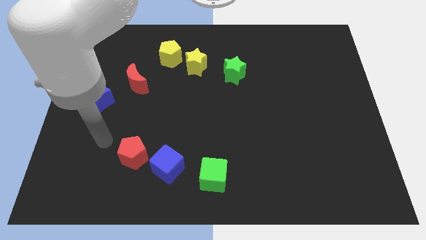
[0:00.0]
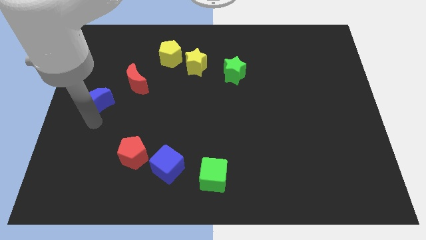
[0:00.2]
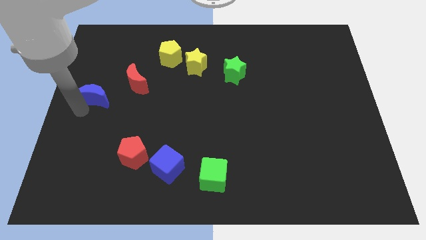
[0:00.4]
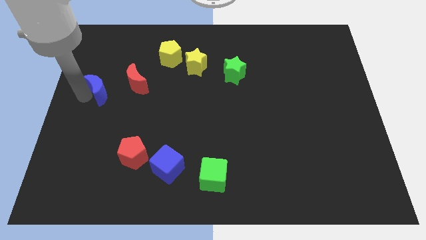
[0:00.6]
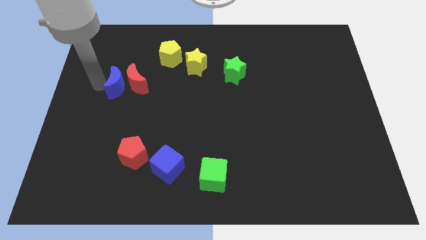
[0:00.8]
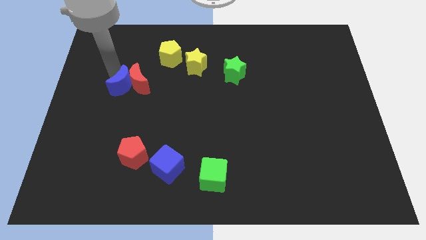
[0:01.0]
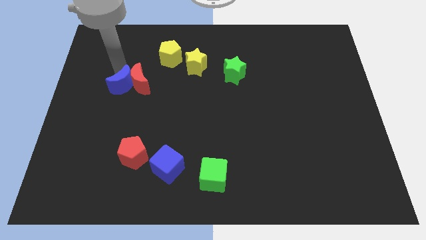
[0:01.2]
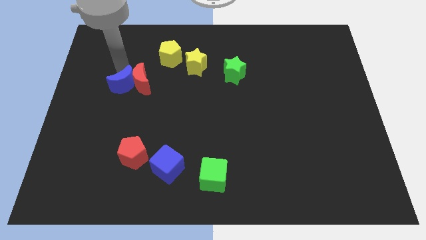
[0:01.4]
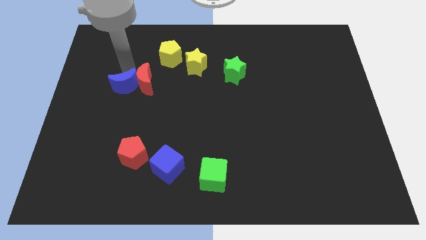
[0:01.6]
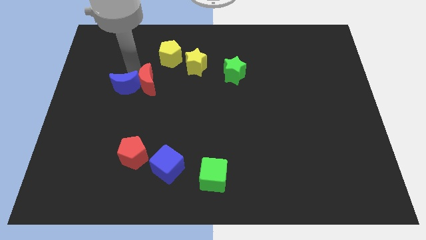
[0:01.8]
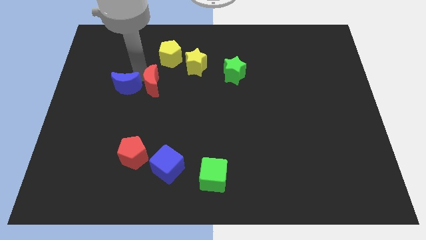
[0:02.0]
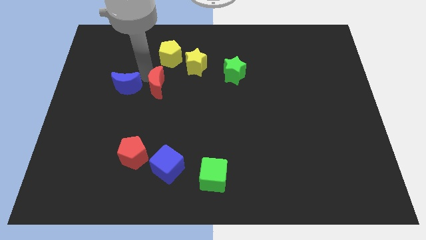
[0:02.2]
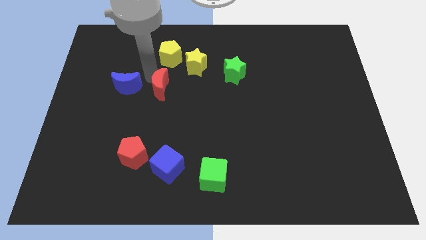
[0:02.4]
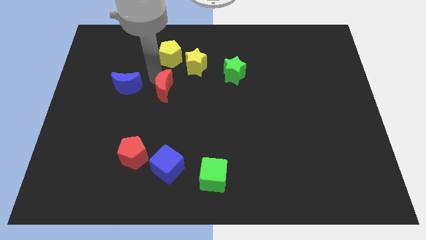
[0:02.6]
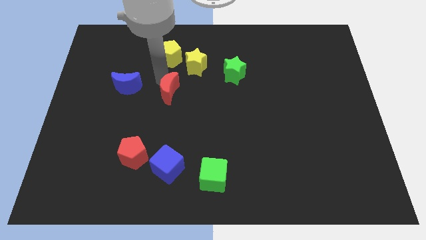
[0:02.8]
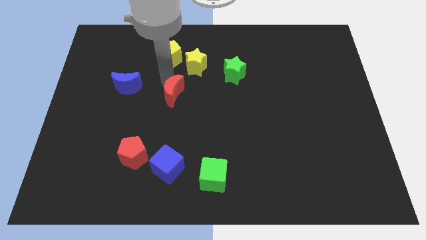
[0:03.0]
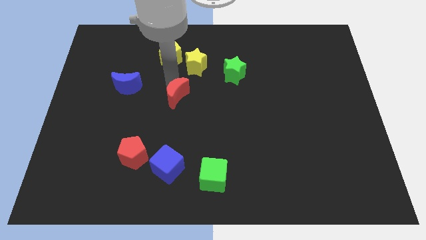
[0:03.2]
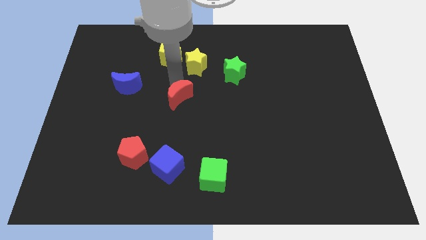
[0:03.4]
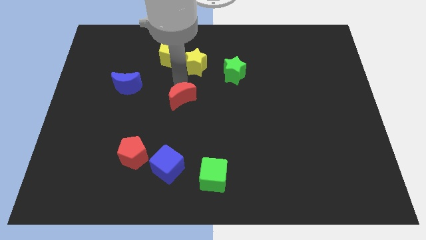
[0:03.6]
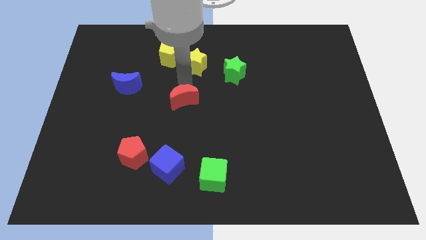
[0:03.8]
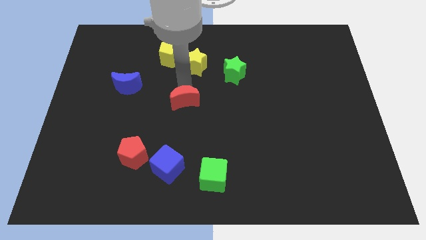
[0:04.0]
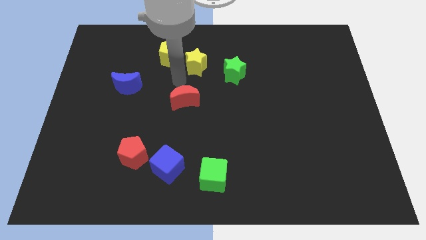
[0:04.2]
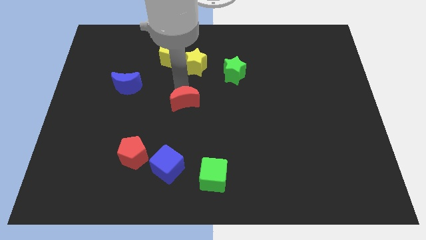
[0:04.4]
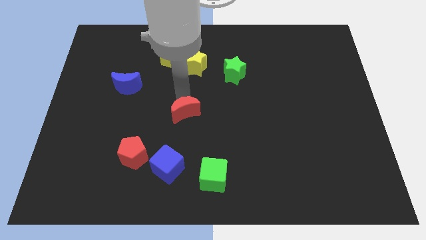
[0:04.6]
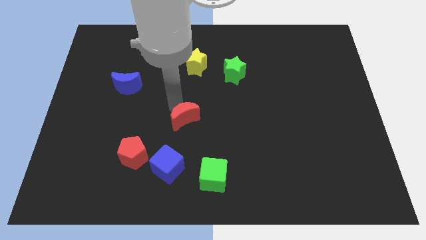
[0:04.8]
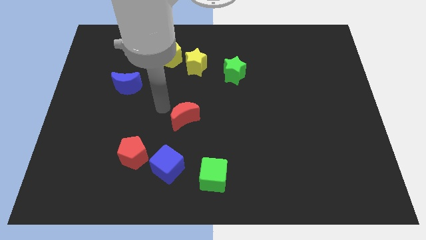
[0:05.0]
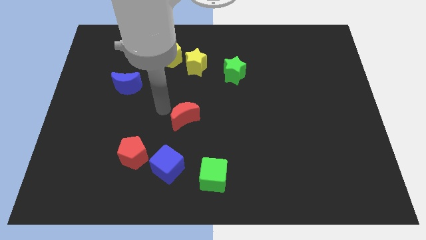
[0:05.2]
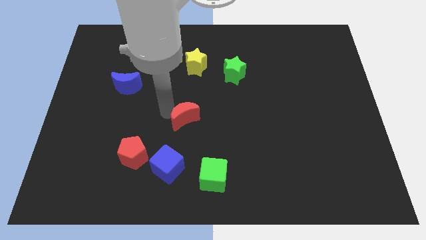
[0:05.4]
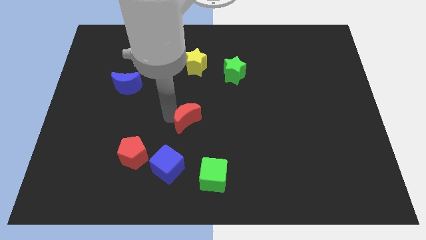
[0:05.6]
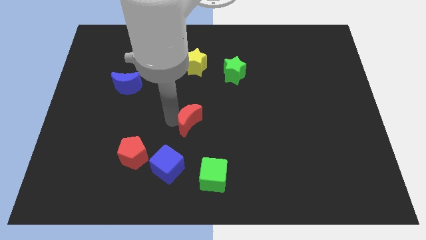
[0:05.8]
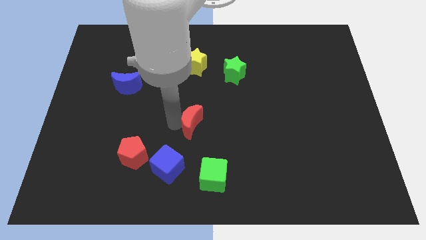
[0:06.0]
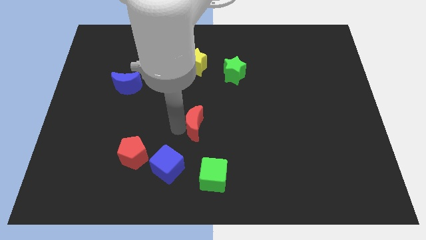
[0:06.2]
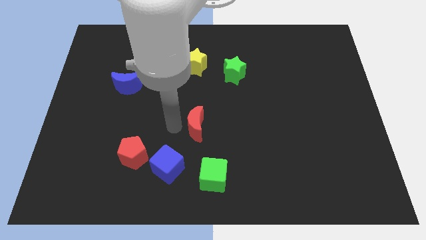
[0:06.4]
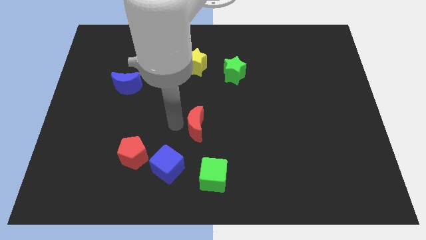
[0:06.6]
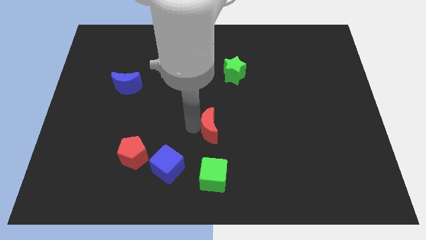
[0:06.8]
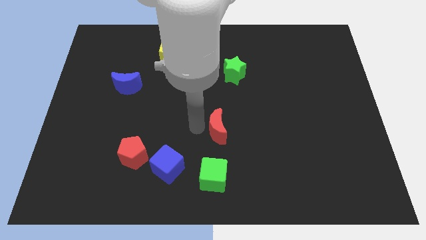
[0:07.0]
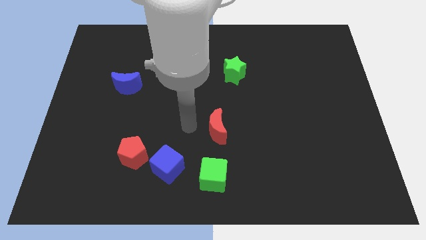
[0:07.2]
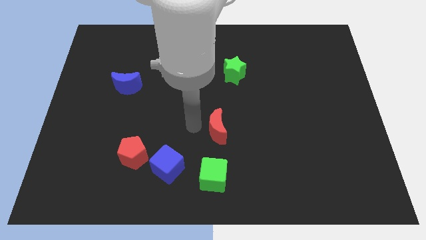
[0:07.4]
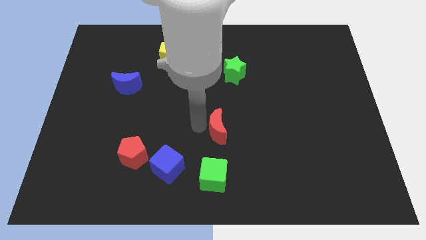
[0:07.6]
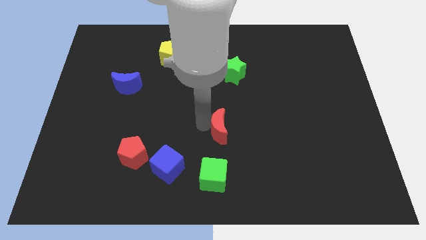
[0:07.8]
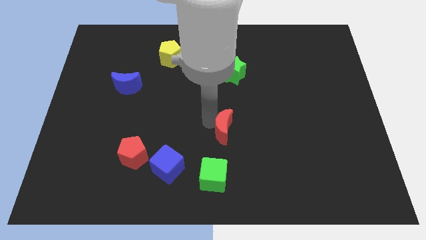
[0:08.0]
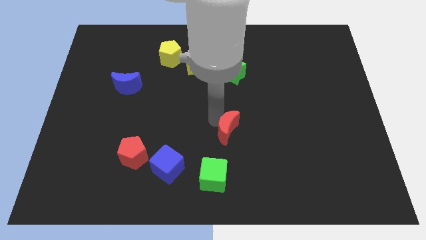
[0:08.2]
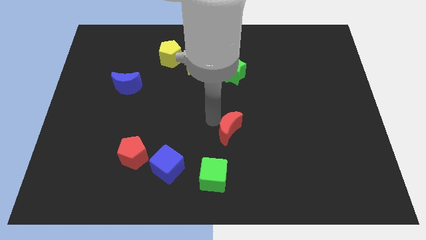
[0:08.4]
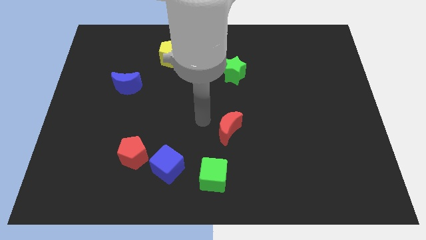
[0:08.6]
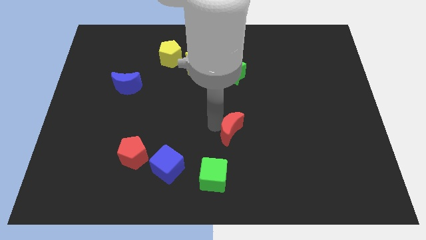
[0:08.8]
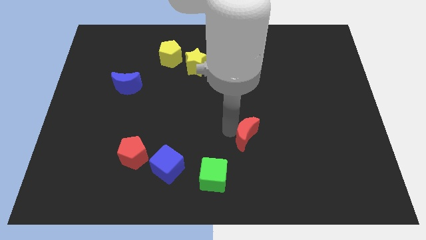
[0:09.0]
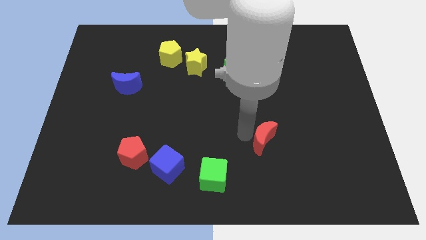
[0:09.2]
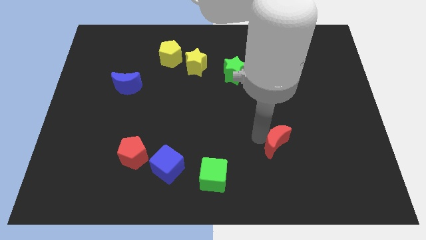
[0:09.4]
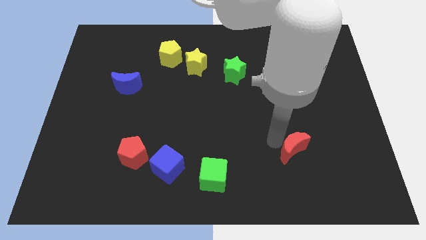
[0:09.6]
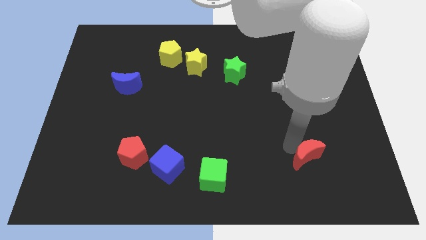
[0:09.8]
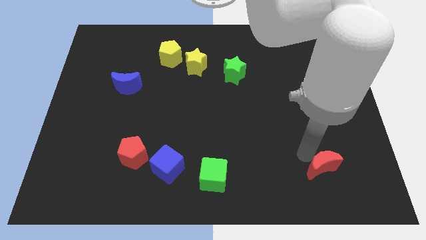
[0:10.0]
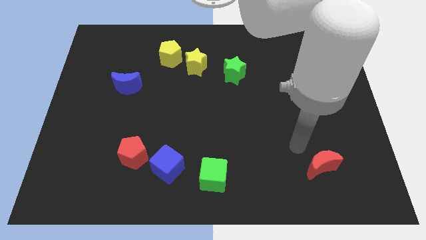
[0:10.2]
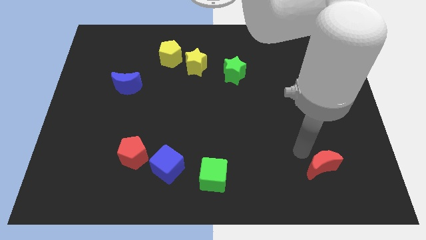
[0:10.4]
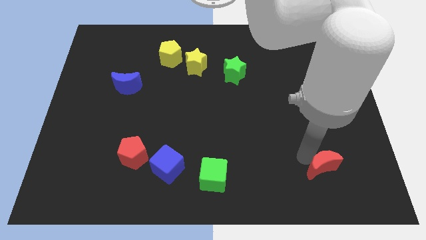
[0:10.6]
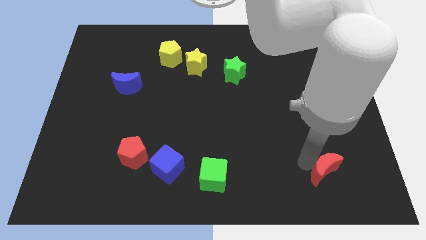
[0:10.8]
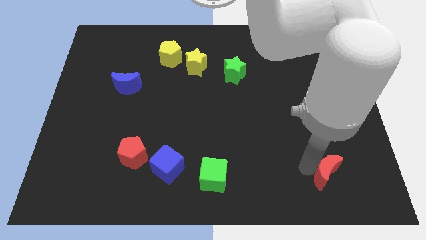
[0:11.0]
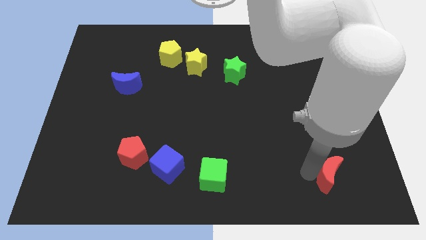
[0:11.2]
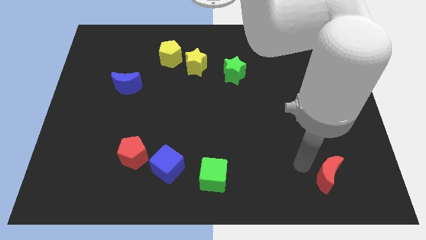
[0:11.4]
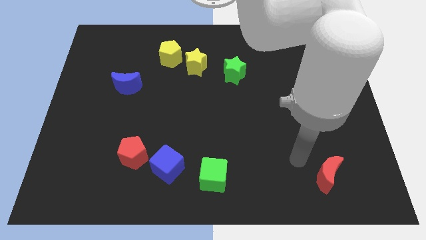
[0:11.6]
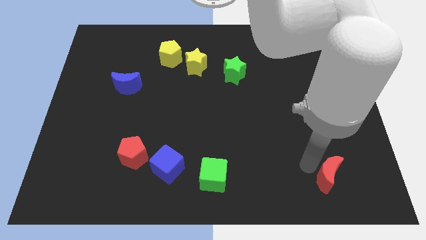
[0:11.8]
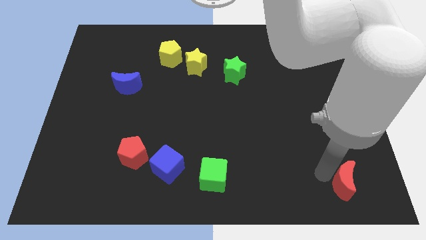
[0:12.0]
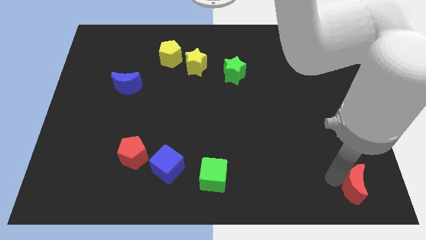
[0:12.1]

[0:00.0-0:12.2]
put the red moon to the bottom right corner
